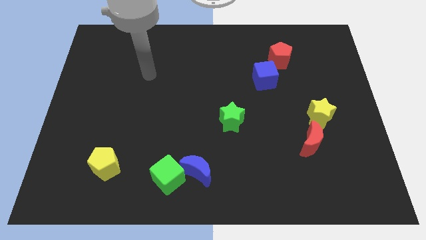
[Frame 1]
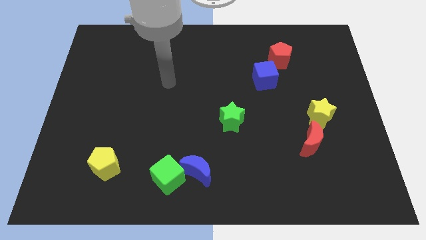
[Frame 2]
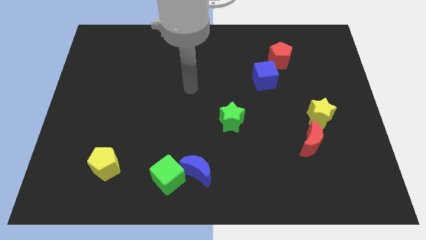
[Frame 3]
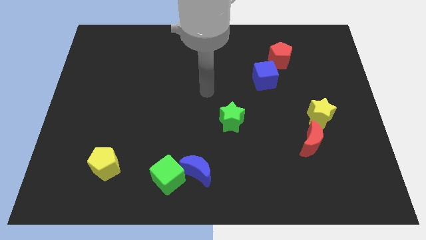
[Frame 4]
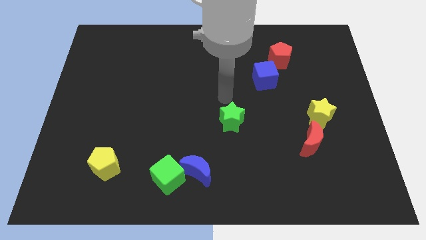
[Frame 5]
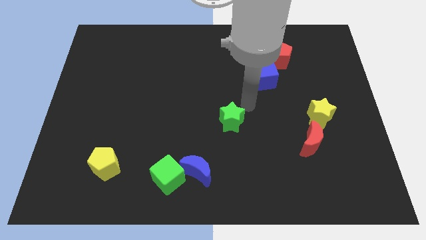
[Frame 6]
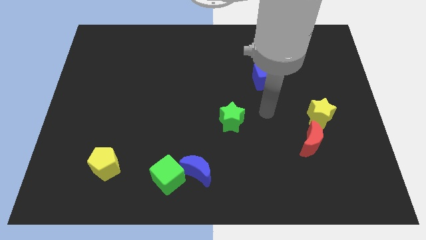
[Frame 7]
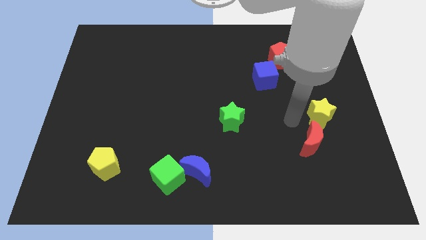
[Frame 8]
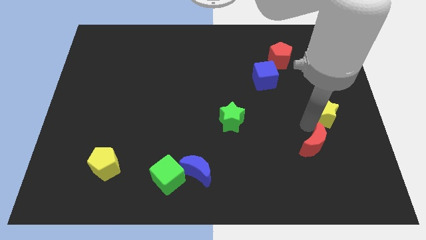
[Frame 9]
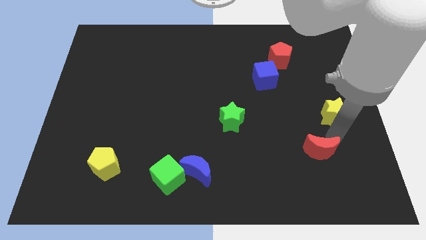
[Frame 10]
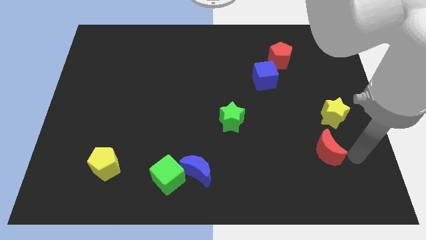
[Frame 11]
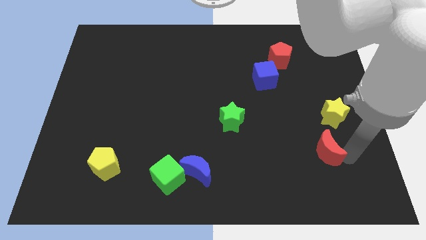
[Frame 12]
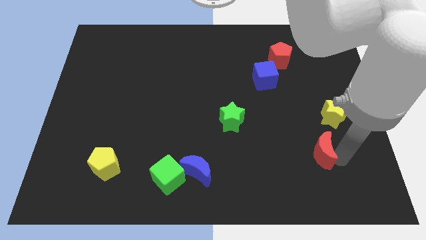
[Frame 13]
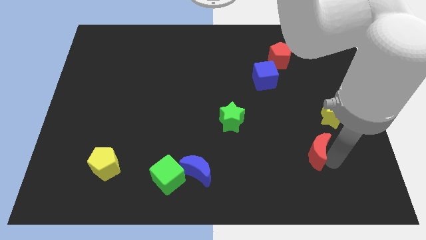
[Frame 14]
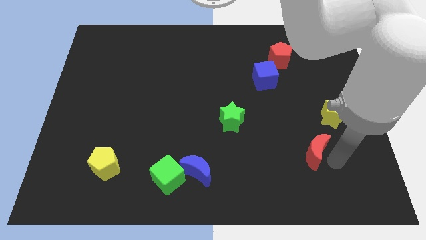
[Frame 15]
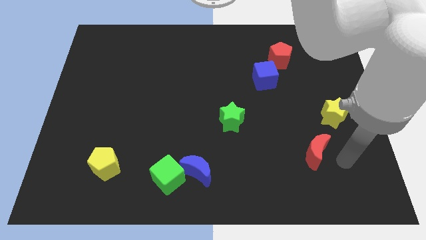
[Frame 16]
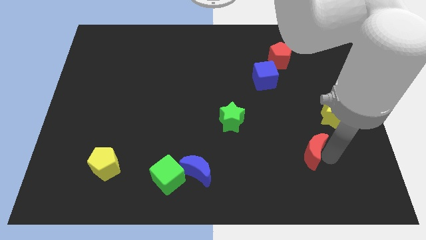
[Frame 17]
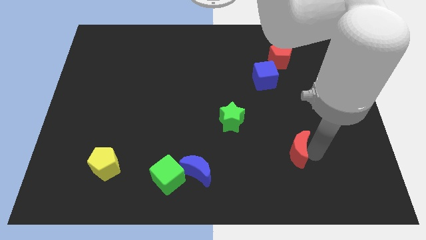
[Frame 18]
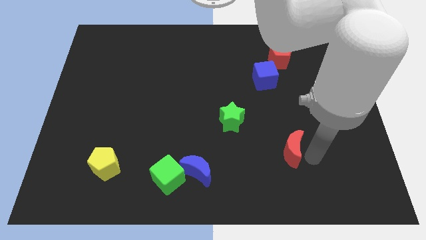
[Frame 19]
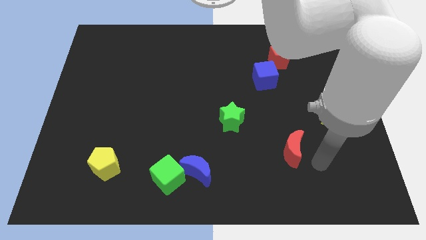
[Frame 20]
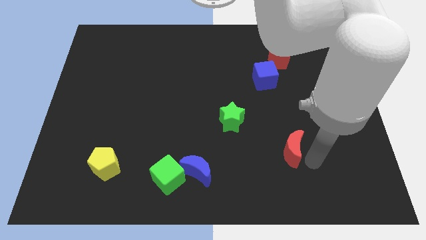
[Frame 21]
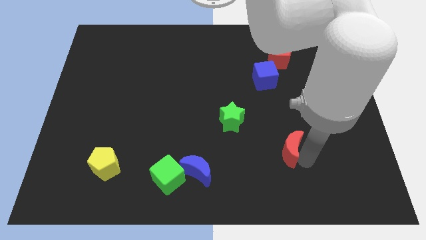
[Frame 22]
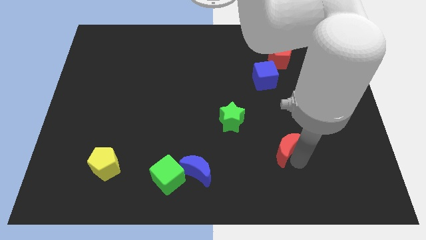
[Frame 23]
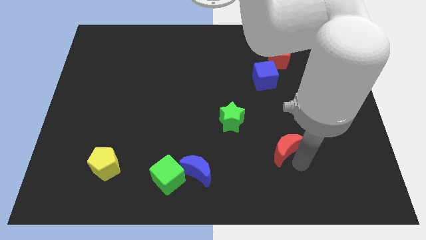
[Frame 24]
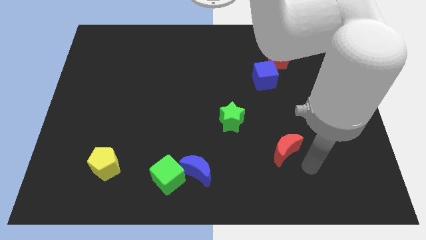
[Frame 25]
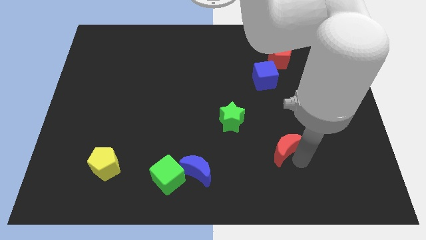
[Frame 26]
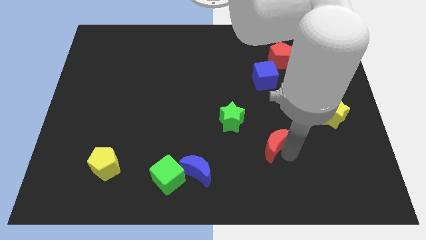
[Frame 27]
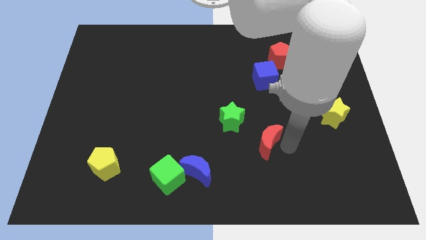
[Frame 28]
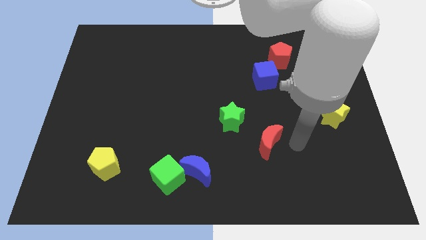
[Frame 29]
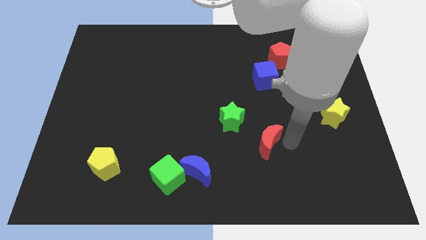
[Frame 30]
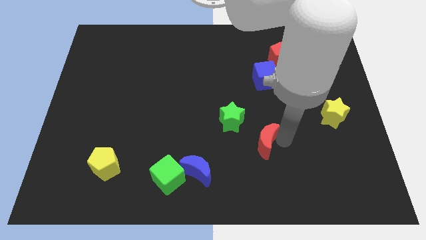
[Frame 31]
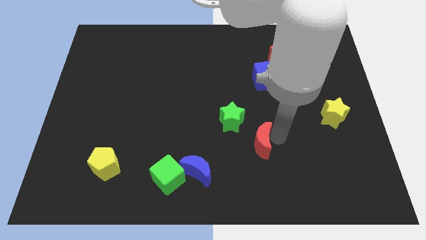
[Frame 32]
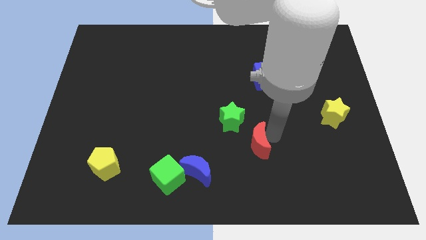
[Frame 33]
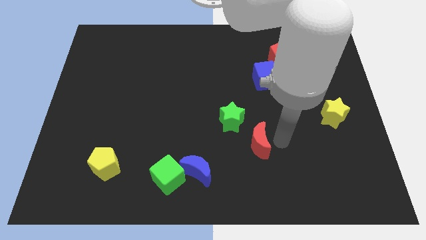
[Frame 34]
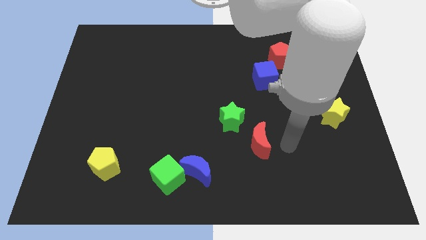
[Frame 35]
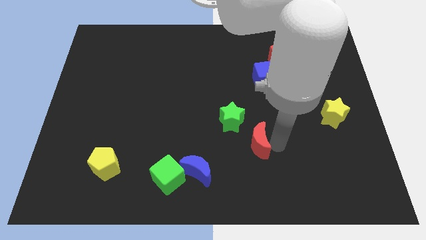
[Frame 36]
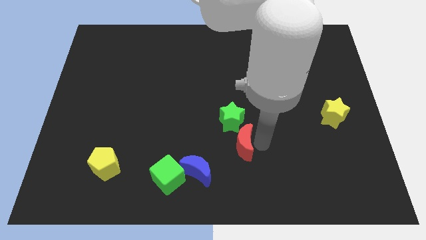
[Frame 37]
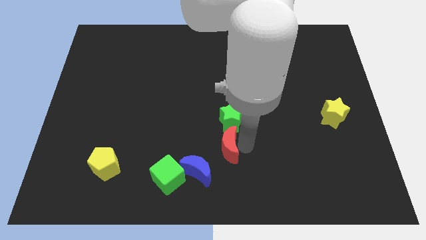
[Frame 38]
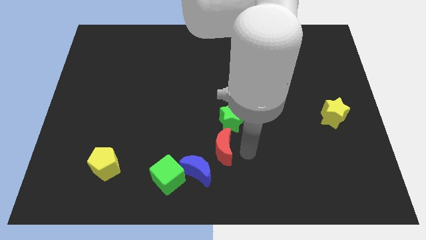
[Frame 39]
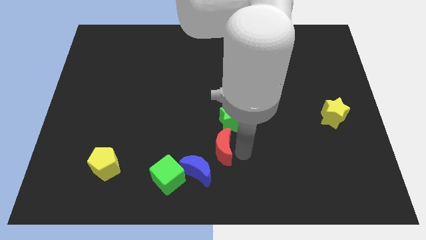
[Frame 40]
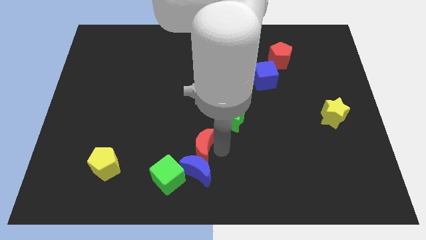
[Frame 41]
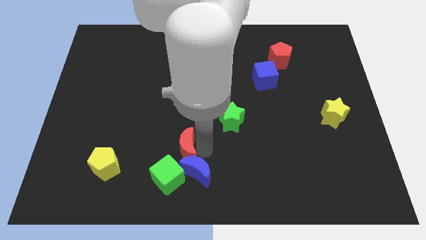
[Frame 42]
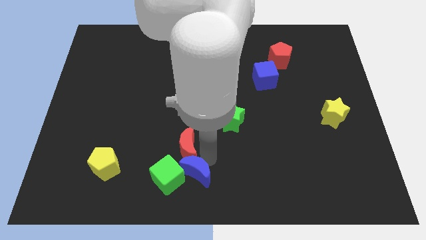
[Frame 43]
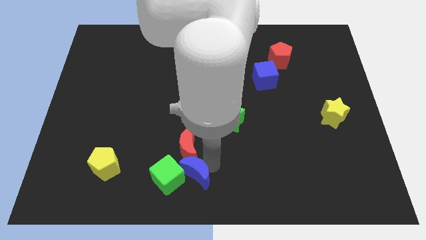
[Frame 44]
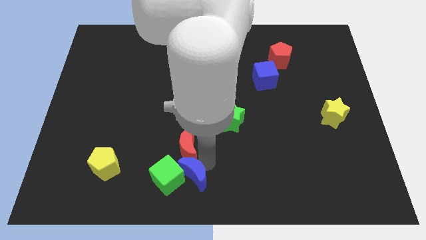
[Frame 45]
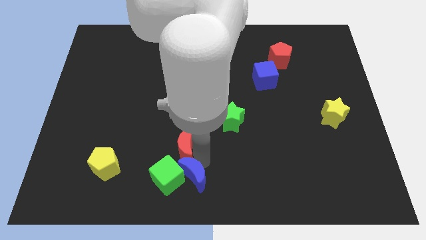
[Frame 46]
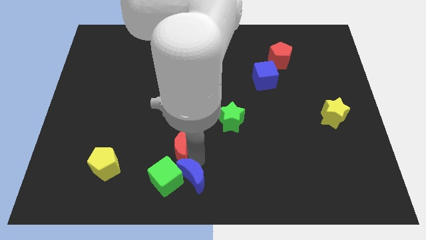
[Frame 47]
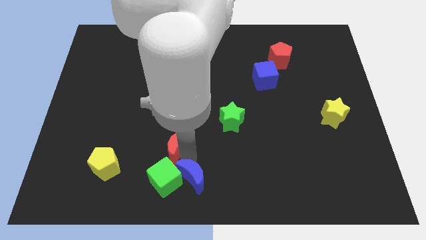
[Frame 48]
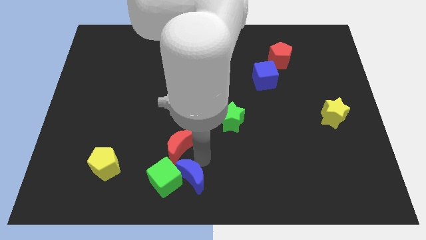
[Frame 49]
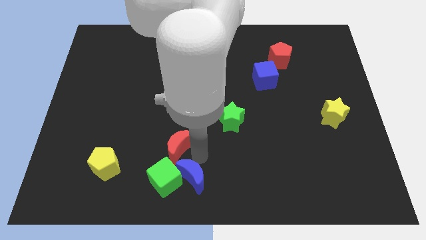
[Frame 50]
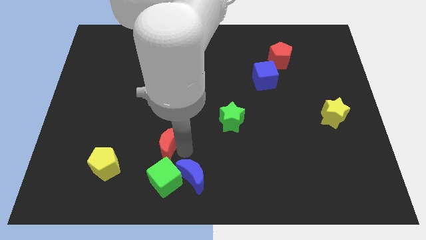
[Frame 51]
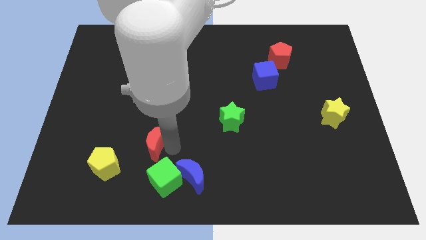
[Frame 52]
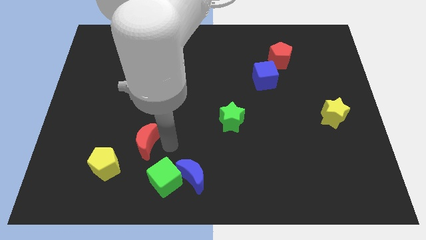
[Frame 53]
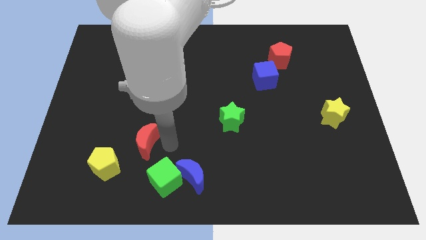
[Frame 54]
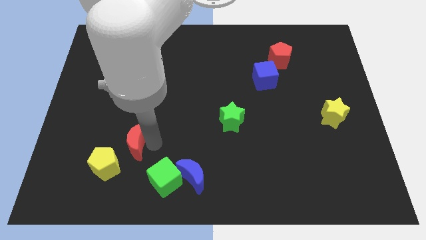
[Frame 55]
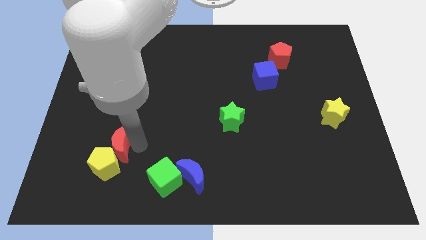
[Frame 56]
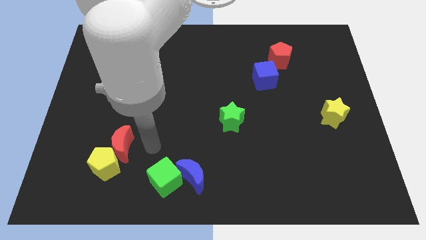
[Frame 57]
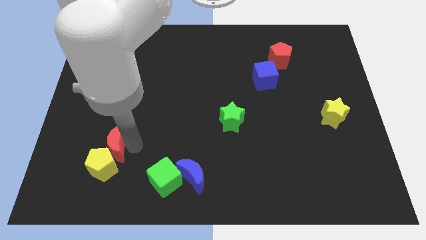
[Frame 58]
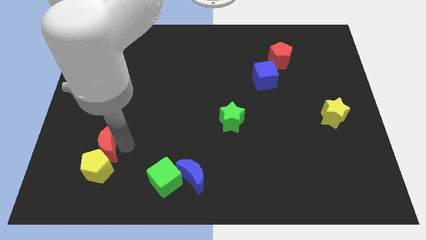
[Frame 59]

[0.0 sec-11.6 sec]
put the red moon to the top left of the yellow pentagon

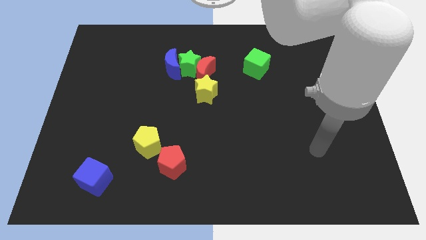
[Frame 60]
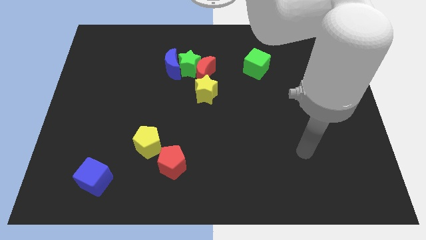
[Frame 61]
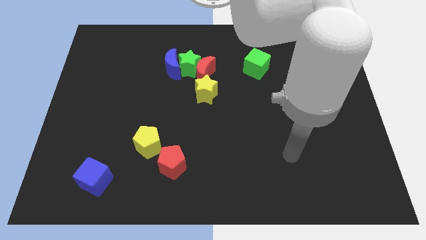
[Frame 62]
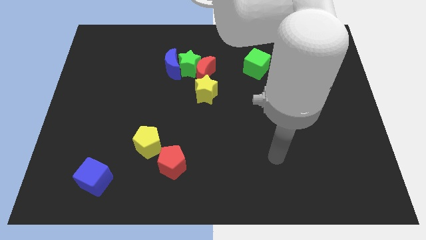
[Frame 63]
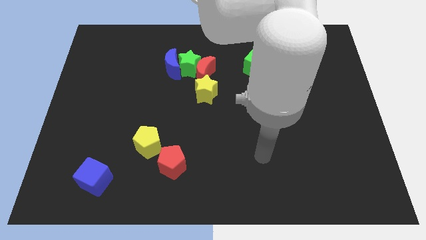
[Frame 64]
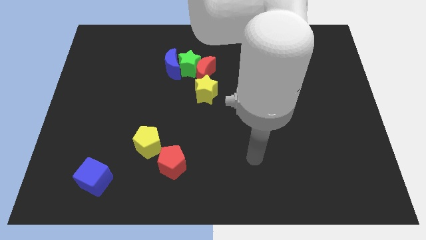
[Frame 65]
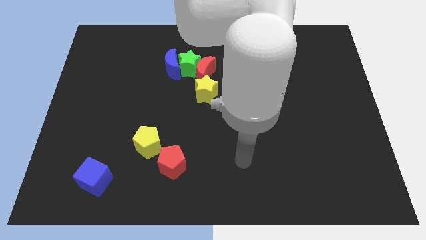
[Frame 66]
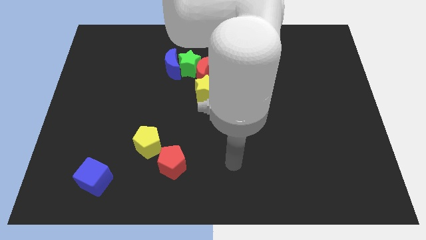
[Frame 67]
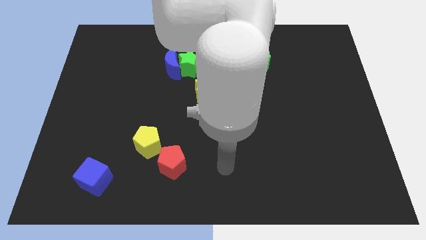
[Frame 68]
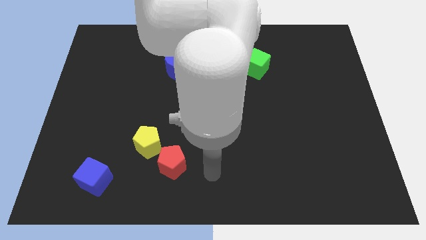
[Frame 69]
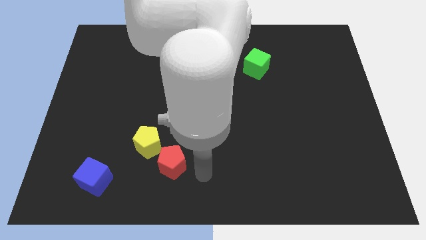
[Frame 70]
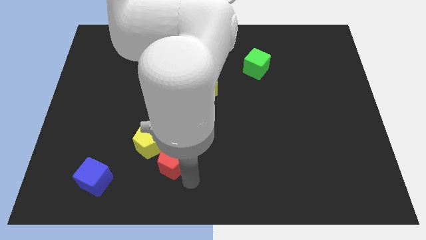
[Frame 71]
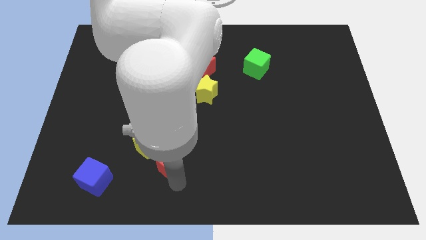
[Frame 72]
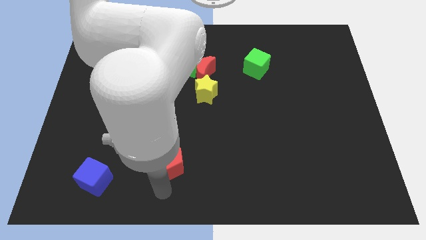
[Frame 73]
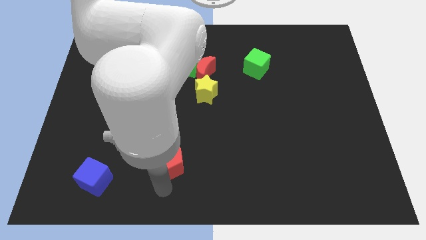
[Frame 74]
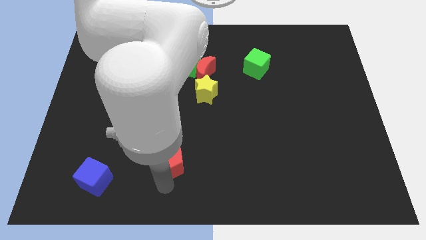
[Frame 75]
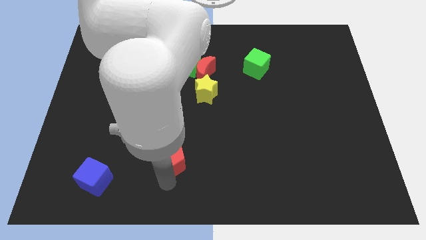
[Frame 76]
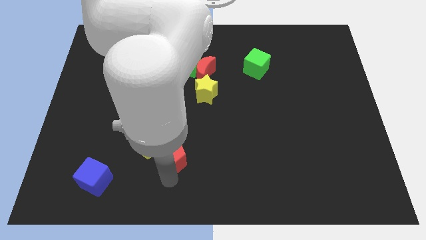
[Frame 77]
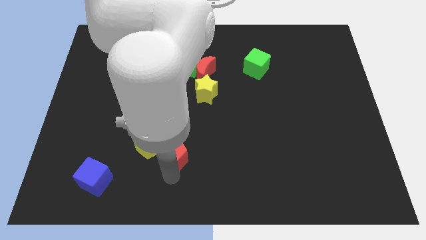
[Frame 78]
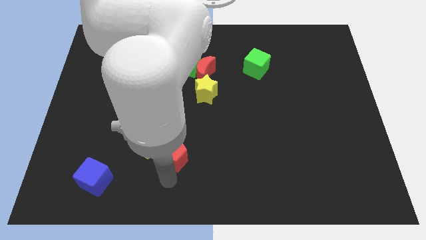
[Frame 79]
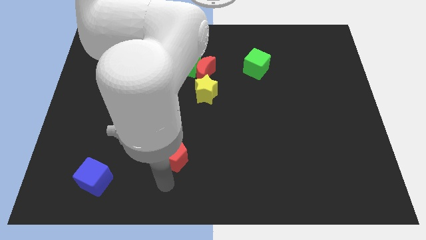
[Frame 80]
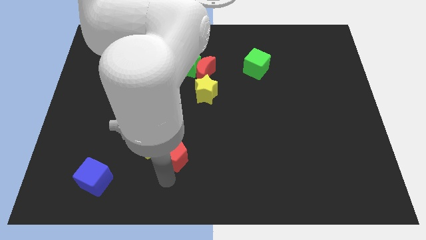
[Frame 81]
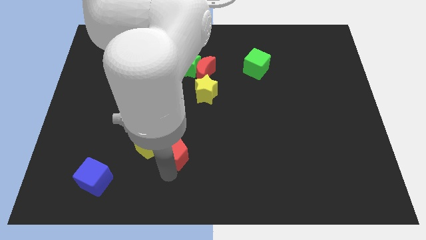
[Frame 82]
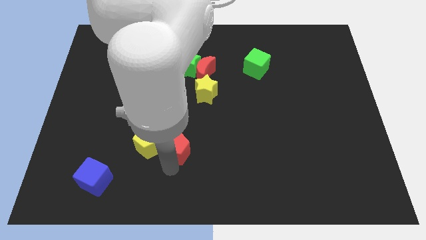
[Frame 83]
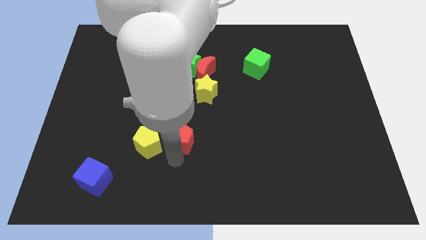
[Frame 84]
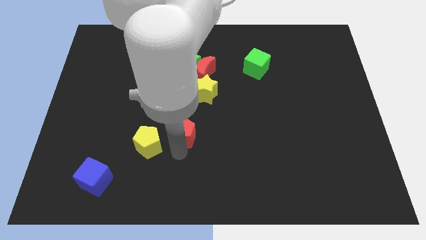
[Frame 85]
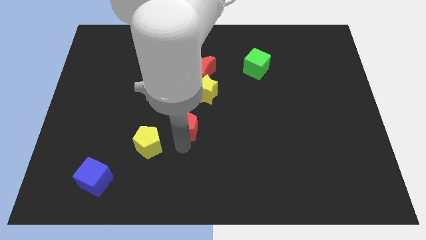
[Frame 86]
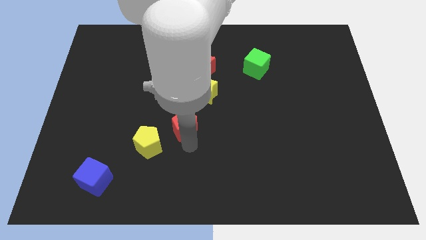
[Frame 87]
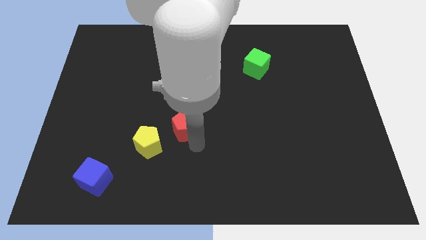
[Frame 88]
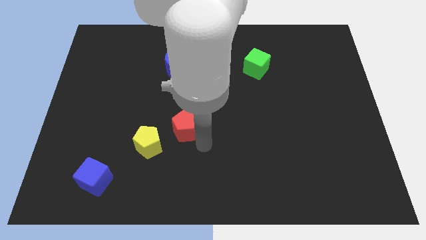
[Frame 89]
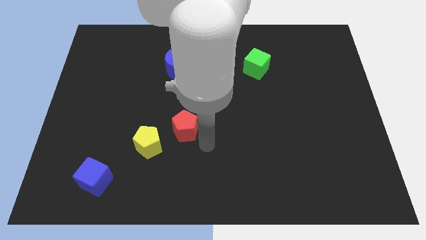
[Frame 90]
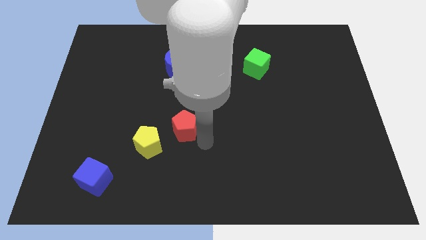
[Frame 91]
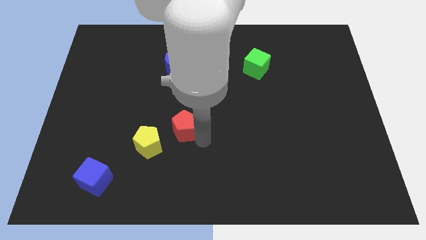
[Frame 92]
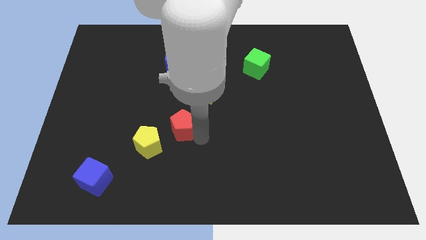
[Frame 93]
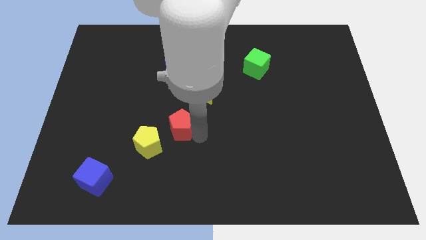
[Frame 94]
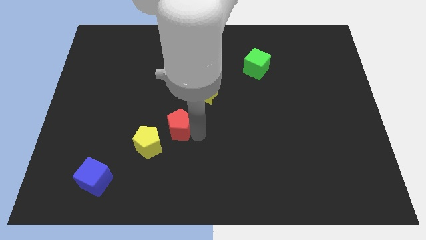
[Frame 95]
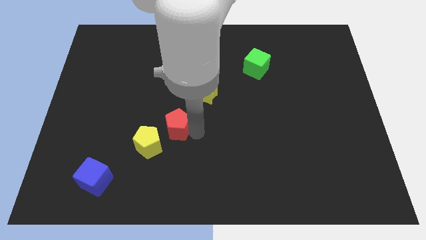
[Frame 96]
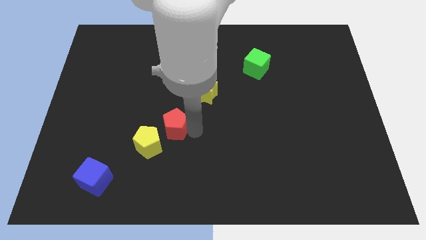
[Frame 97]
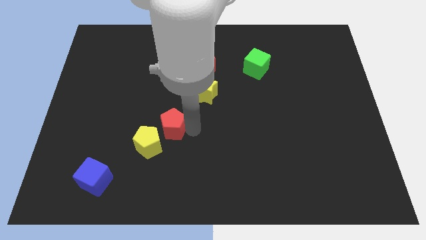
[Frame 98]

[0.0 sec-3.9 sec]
push the red pentagon to the top of the yellow pentagon
